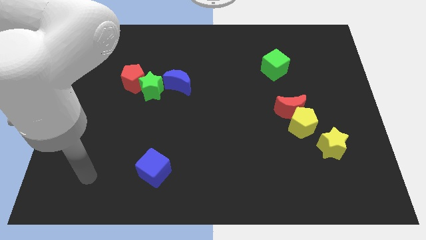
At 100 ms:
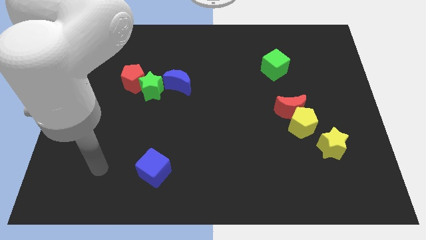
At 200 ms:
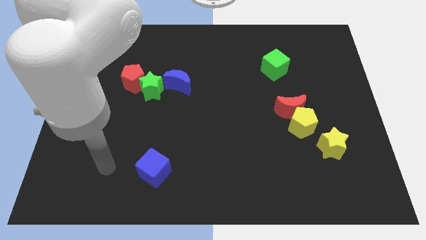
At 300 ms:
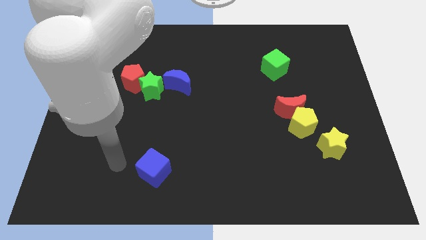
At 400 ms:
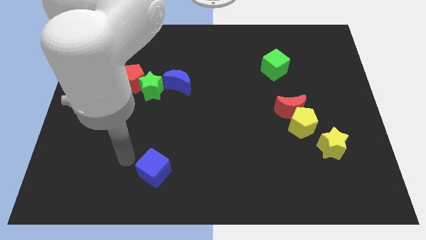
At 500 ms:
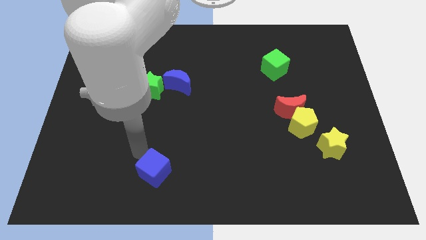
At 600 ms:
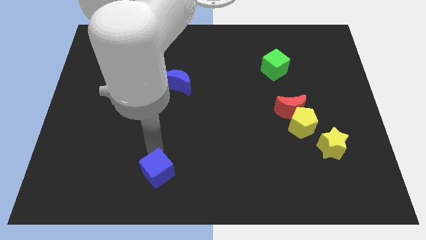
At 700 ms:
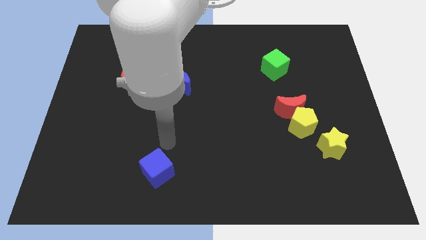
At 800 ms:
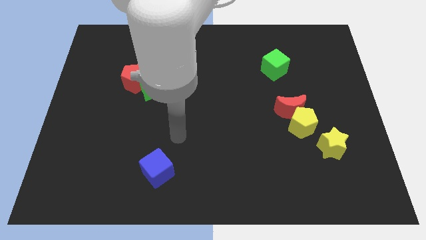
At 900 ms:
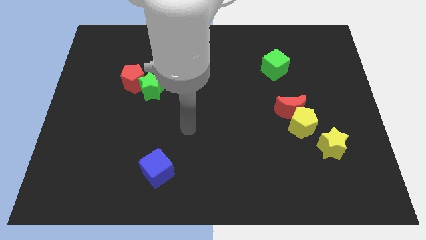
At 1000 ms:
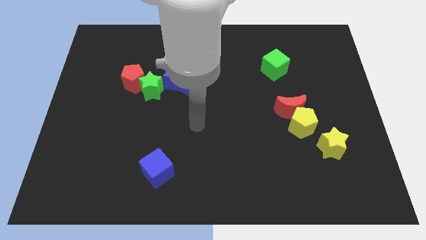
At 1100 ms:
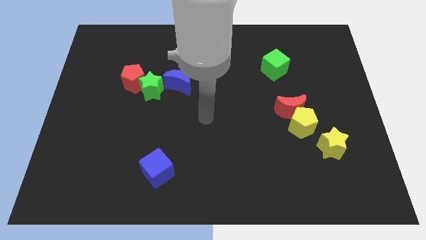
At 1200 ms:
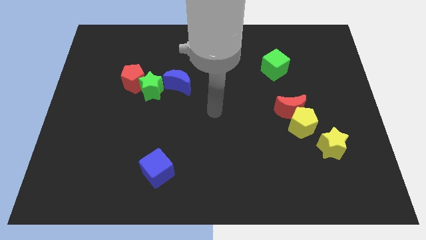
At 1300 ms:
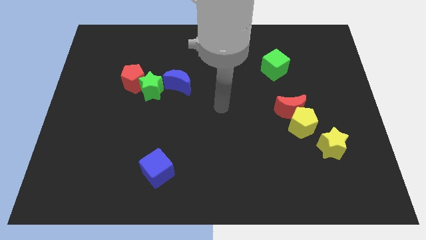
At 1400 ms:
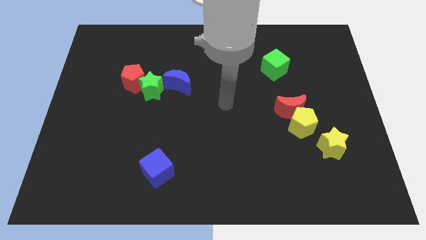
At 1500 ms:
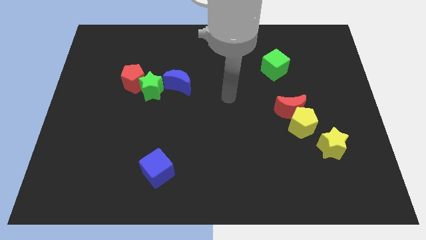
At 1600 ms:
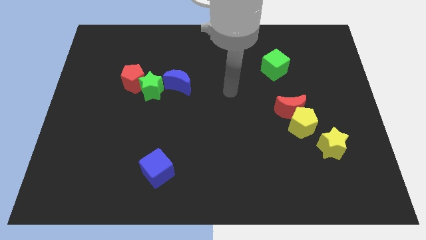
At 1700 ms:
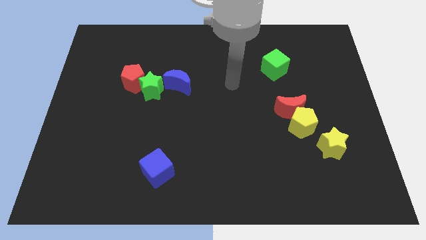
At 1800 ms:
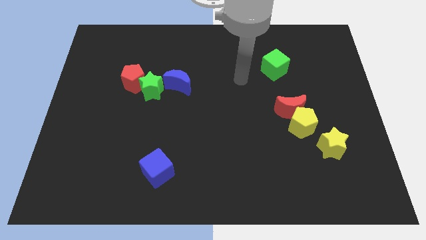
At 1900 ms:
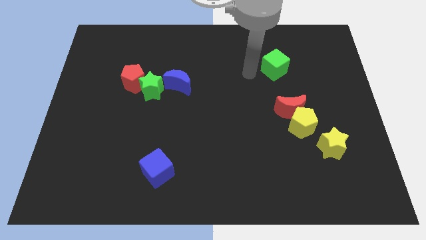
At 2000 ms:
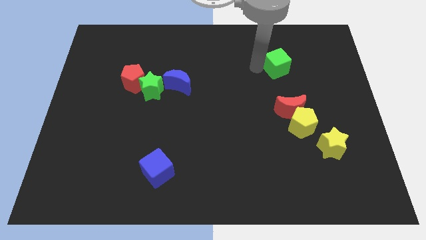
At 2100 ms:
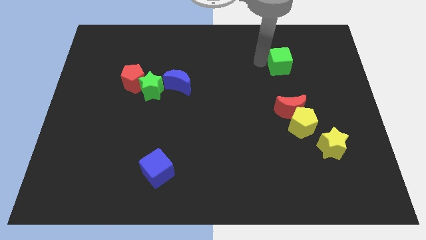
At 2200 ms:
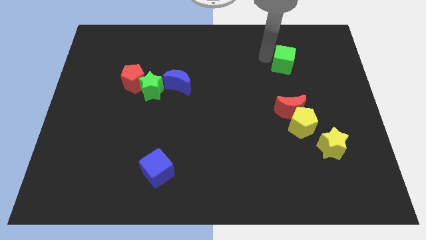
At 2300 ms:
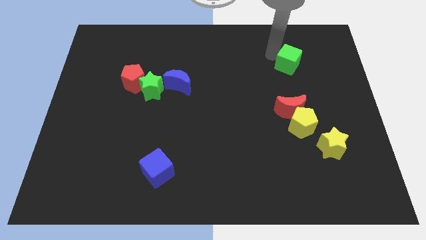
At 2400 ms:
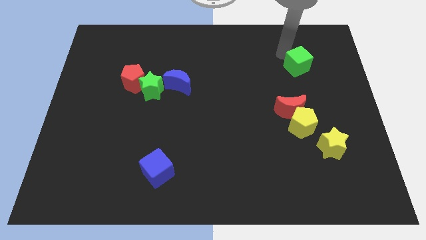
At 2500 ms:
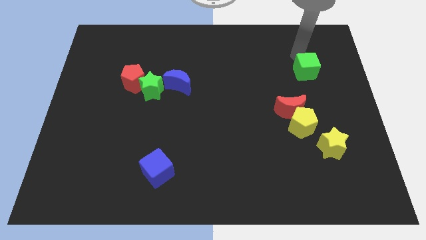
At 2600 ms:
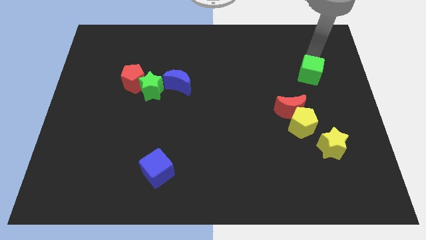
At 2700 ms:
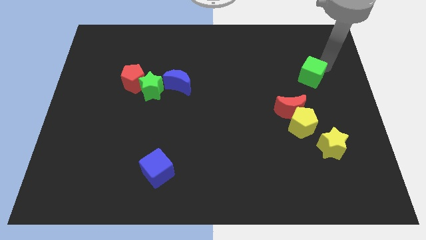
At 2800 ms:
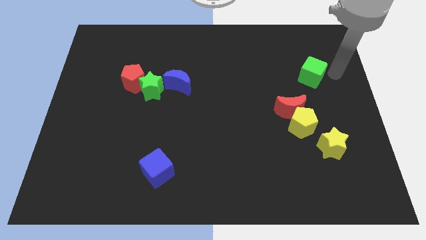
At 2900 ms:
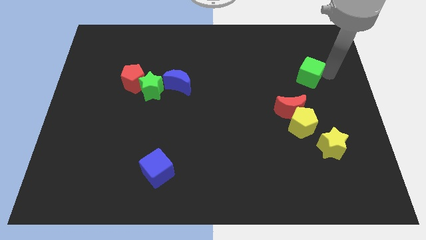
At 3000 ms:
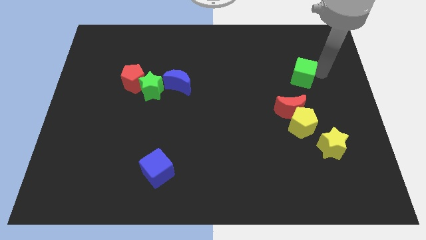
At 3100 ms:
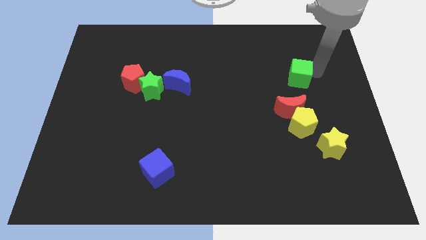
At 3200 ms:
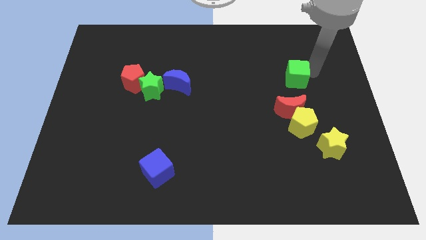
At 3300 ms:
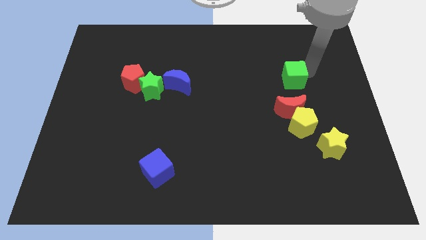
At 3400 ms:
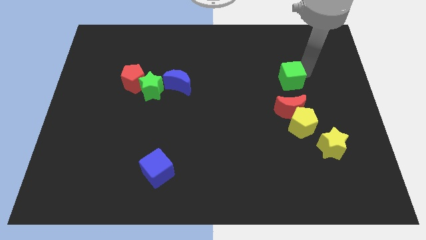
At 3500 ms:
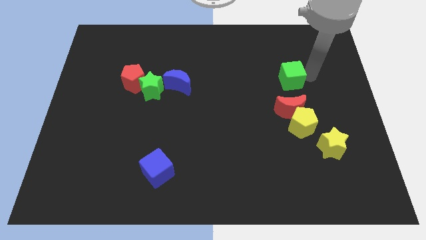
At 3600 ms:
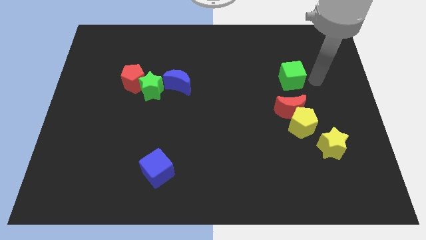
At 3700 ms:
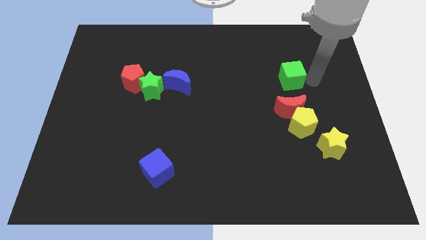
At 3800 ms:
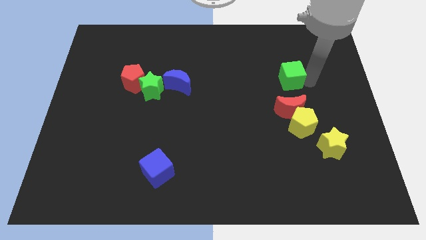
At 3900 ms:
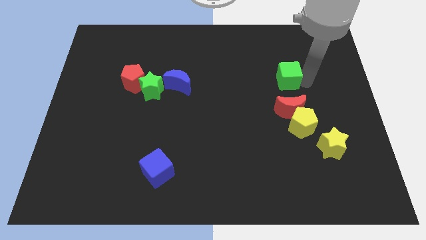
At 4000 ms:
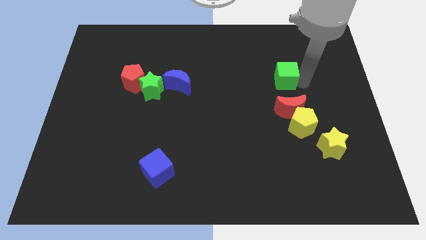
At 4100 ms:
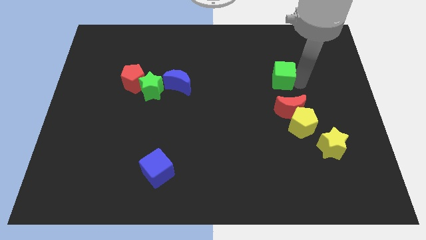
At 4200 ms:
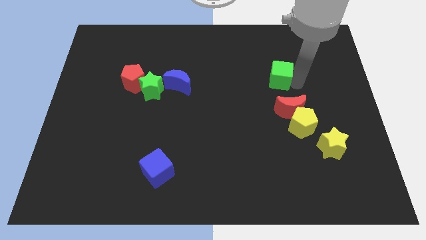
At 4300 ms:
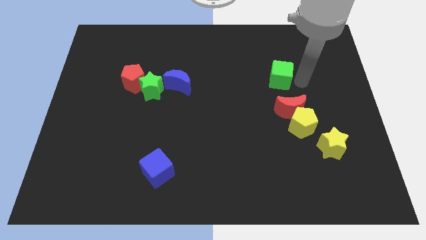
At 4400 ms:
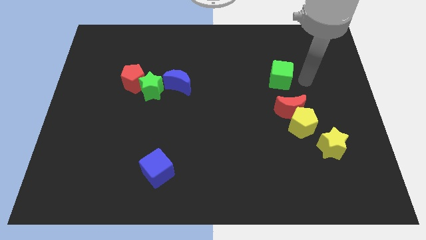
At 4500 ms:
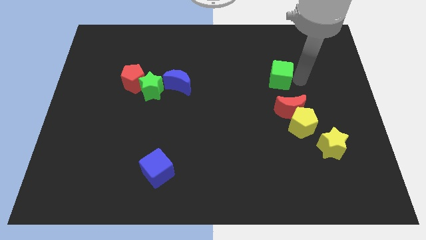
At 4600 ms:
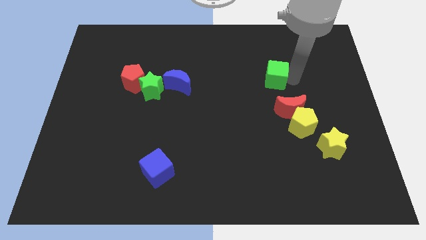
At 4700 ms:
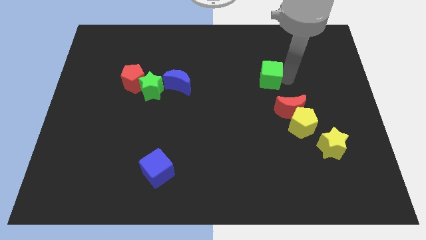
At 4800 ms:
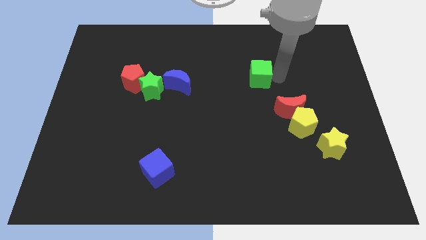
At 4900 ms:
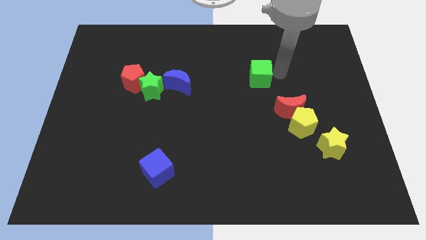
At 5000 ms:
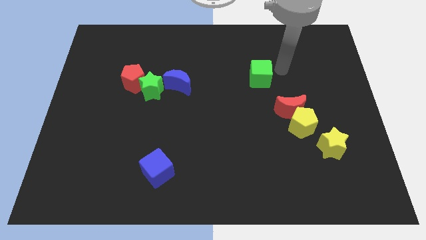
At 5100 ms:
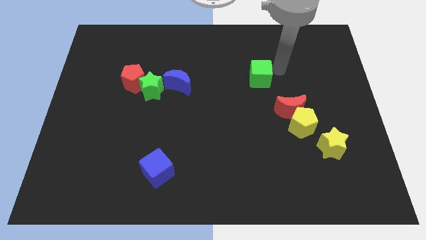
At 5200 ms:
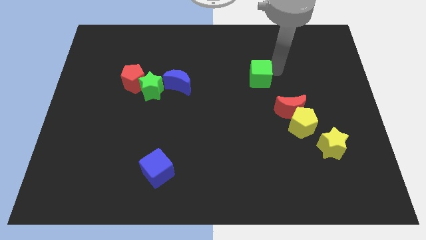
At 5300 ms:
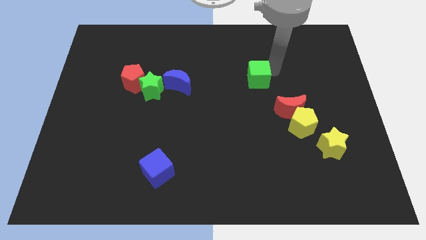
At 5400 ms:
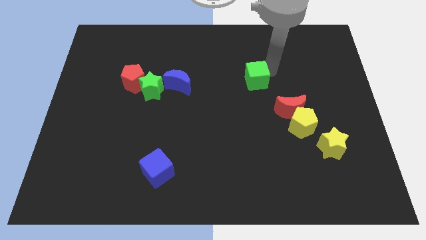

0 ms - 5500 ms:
move the green cube to the center
